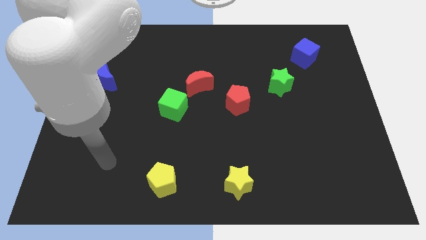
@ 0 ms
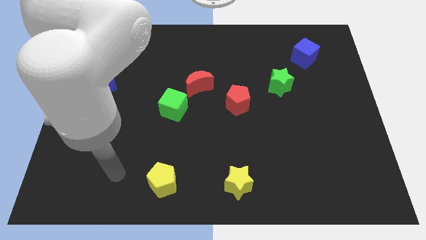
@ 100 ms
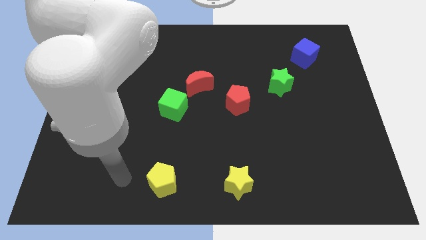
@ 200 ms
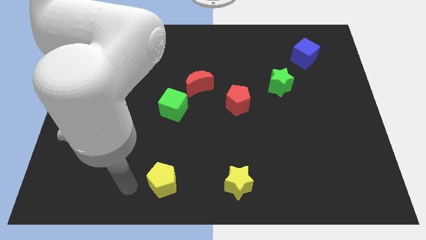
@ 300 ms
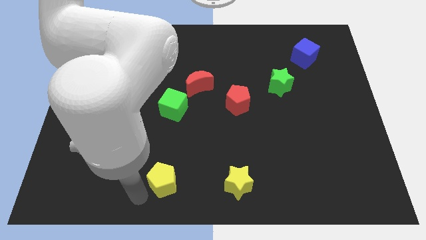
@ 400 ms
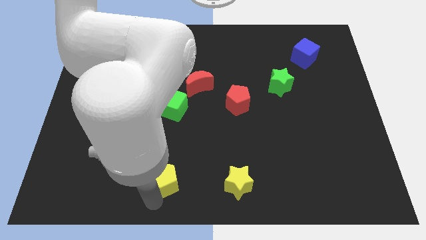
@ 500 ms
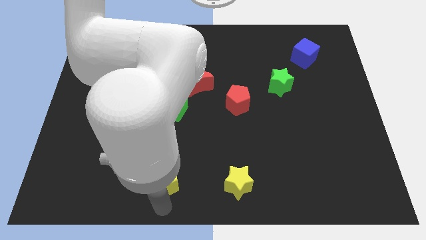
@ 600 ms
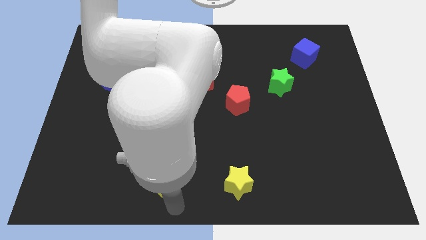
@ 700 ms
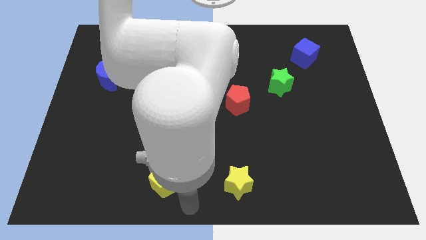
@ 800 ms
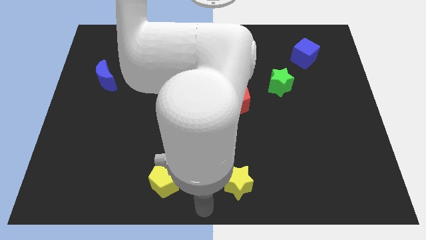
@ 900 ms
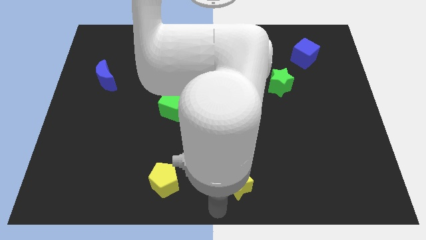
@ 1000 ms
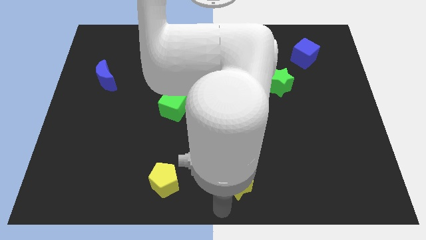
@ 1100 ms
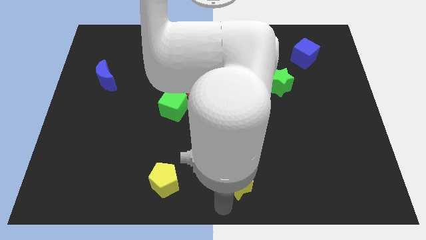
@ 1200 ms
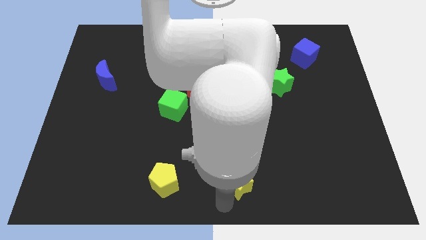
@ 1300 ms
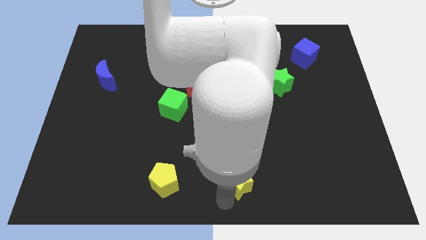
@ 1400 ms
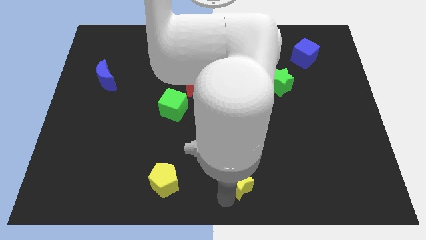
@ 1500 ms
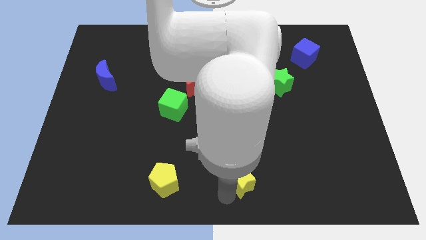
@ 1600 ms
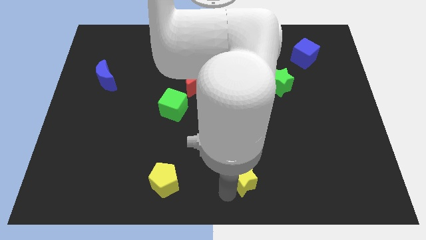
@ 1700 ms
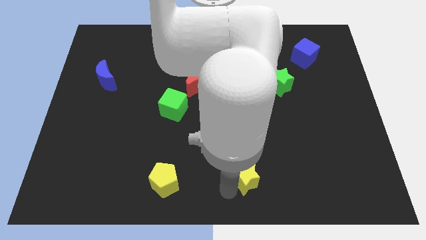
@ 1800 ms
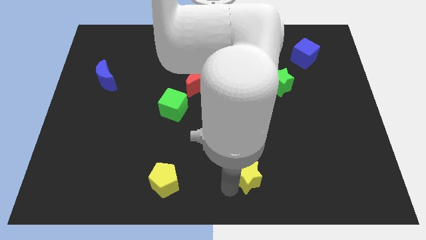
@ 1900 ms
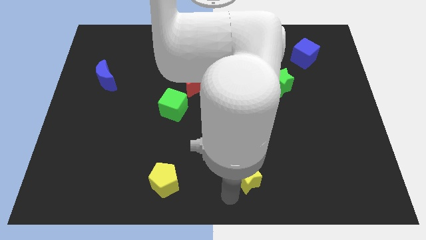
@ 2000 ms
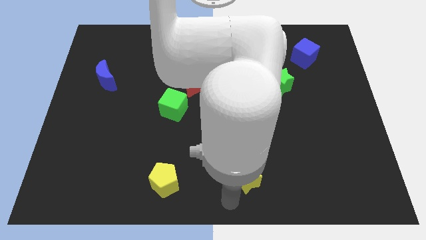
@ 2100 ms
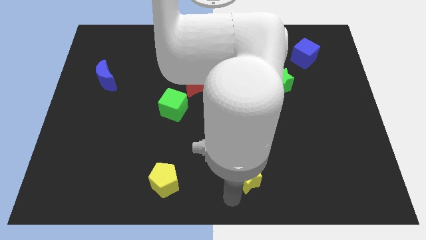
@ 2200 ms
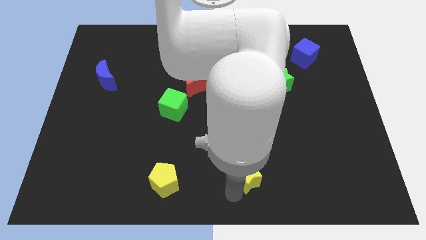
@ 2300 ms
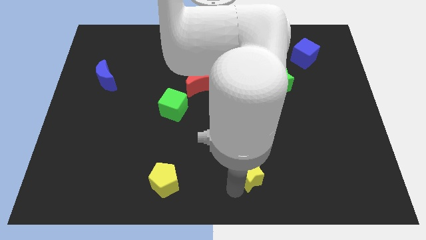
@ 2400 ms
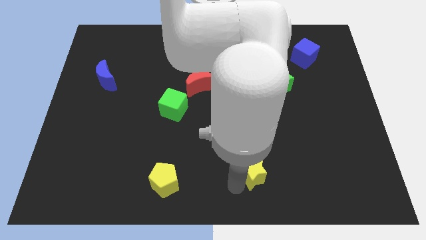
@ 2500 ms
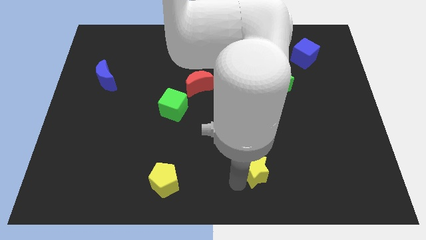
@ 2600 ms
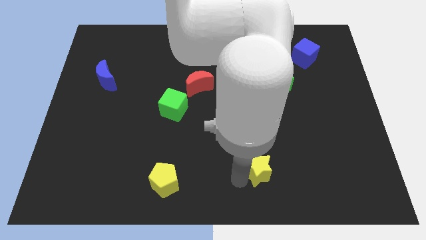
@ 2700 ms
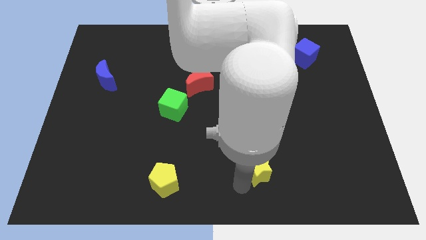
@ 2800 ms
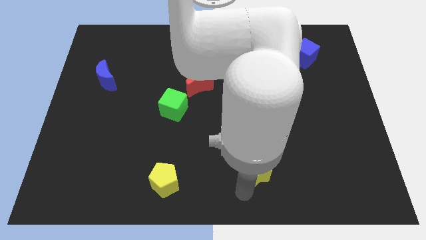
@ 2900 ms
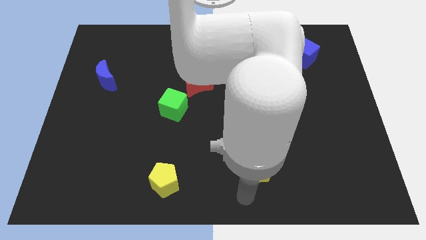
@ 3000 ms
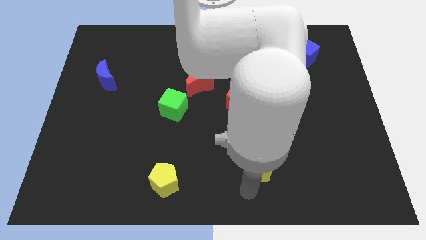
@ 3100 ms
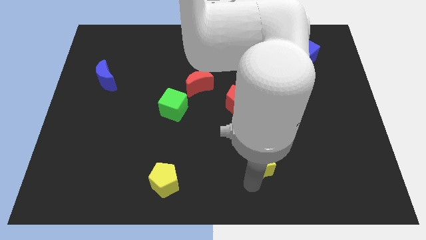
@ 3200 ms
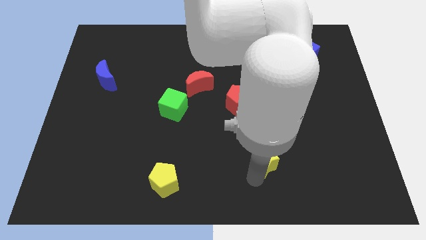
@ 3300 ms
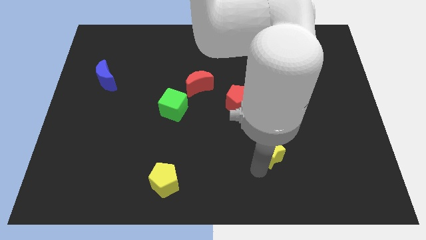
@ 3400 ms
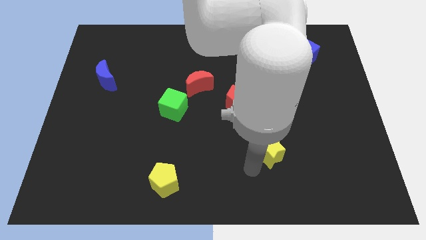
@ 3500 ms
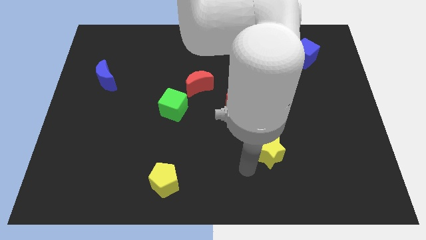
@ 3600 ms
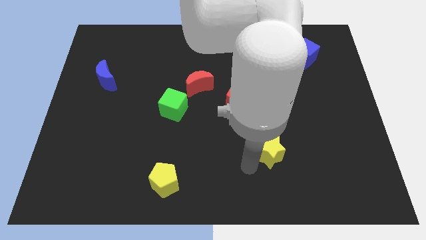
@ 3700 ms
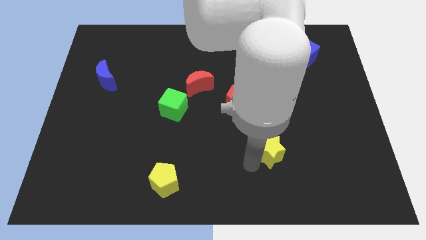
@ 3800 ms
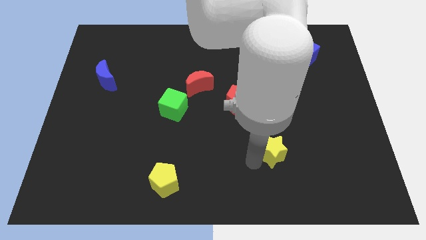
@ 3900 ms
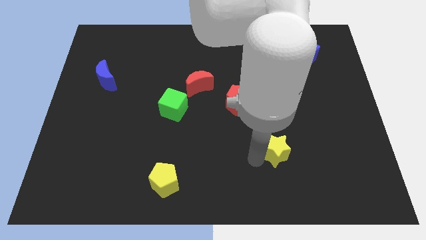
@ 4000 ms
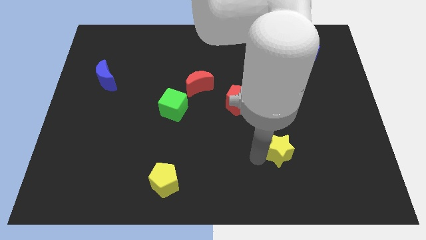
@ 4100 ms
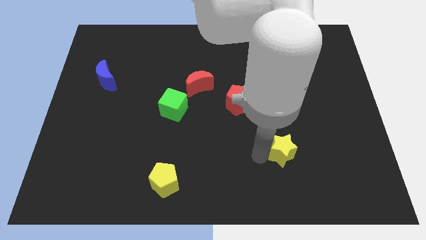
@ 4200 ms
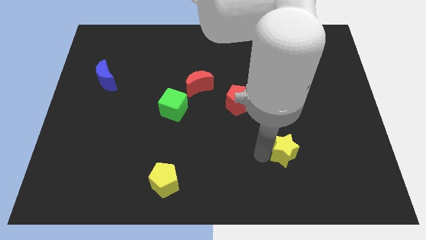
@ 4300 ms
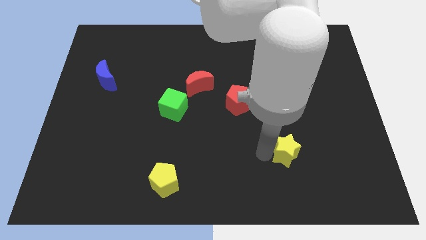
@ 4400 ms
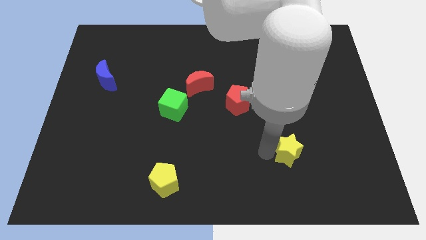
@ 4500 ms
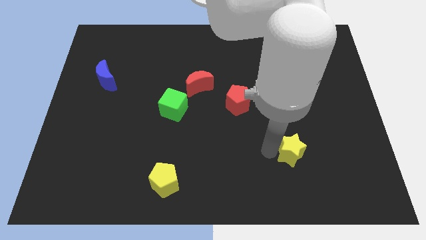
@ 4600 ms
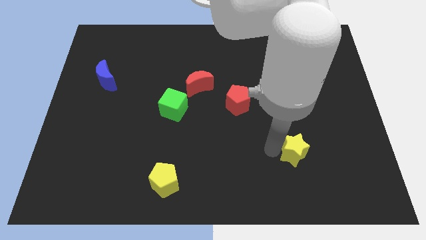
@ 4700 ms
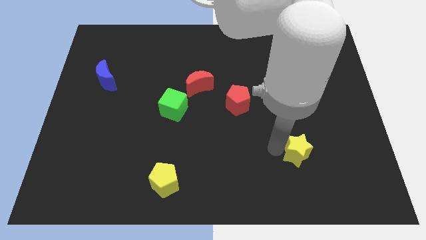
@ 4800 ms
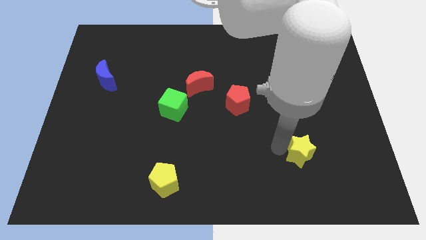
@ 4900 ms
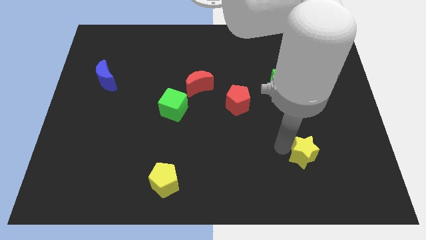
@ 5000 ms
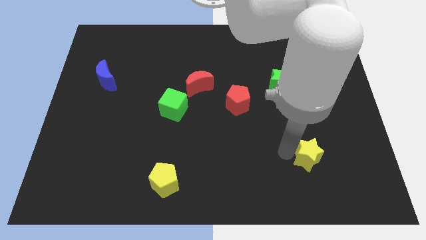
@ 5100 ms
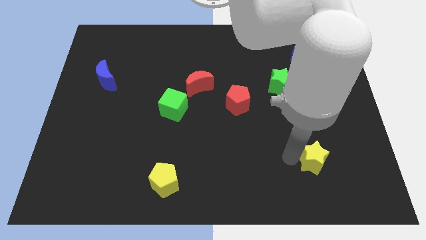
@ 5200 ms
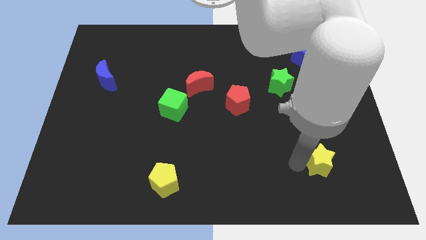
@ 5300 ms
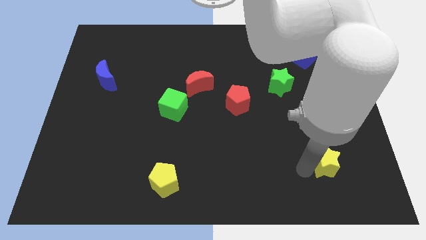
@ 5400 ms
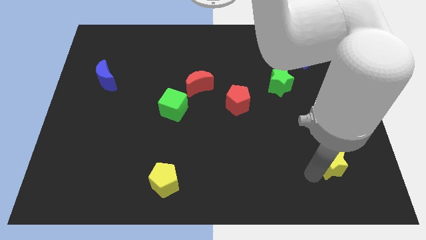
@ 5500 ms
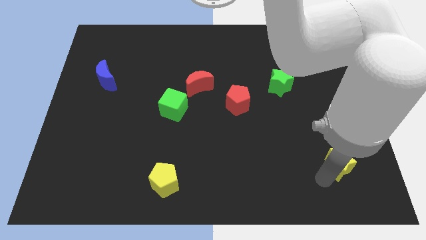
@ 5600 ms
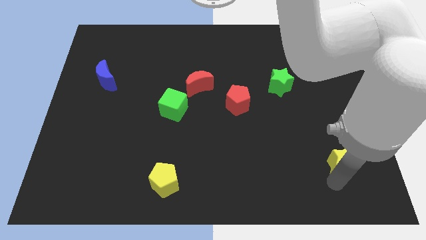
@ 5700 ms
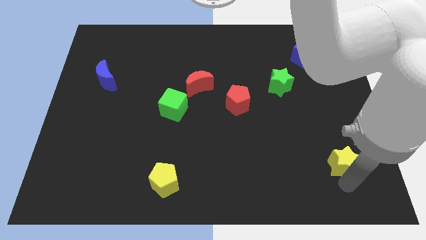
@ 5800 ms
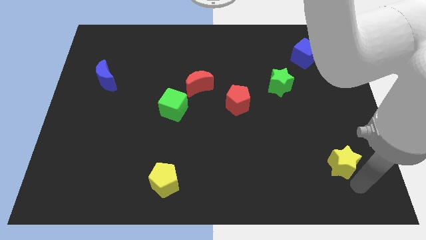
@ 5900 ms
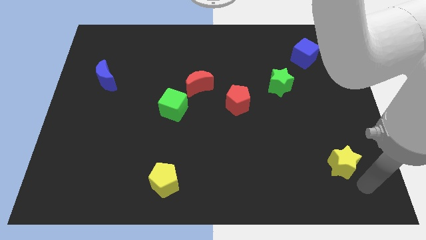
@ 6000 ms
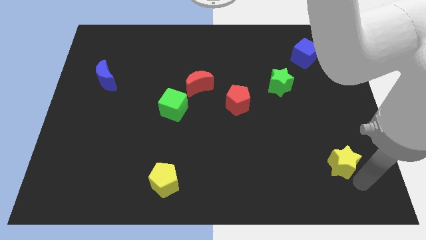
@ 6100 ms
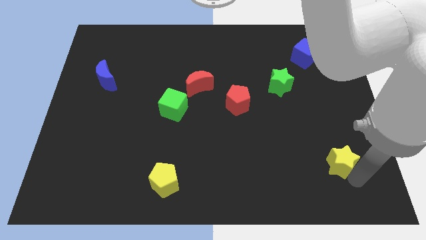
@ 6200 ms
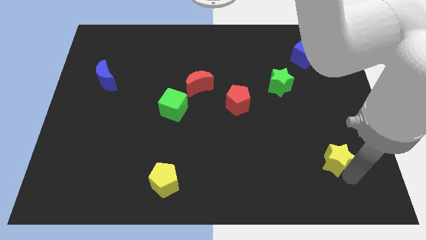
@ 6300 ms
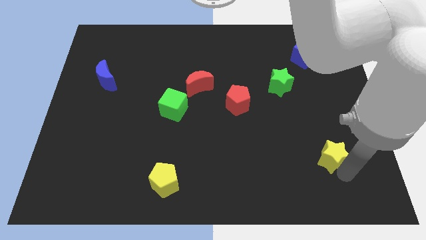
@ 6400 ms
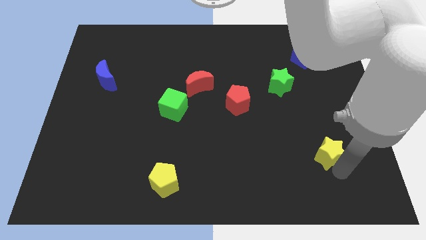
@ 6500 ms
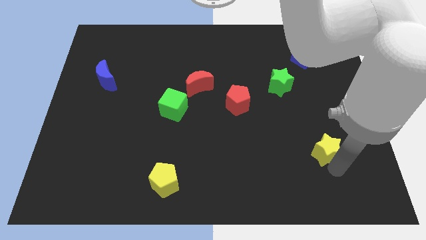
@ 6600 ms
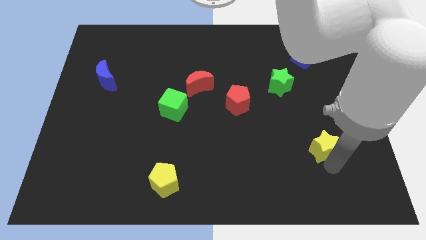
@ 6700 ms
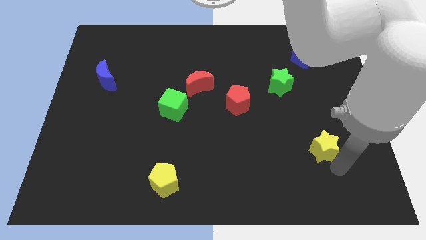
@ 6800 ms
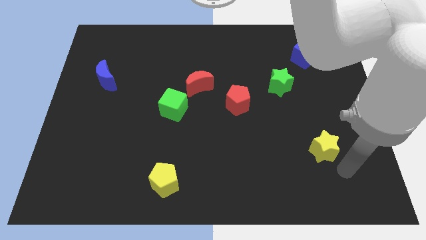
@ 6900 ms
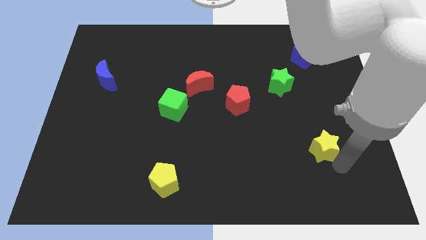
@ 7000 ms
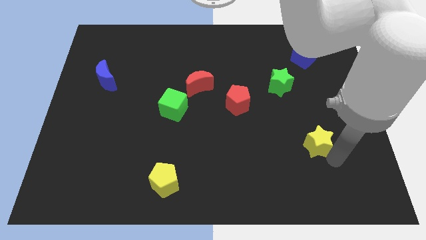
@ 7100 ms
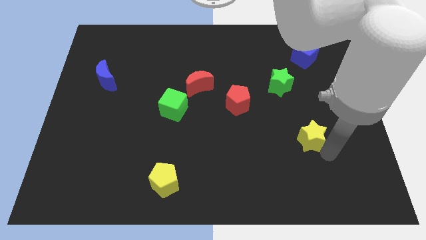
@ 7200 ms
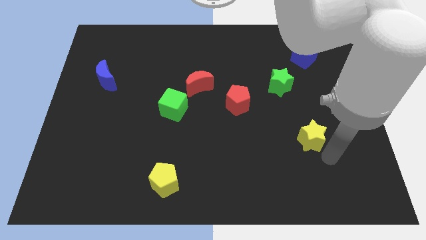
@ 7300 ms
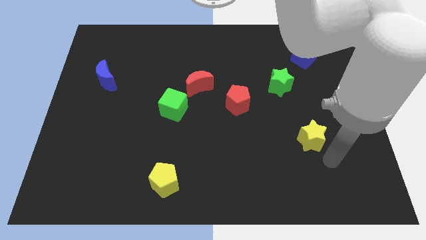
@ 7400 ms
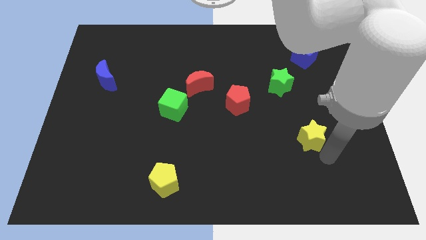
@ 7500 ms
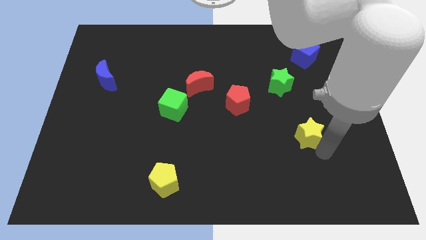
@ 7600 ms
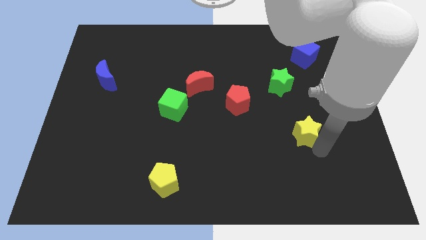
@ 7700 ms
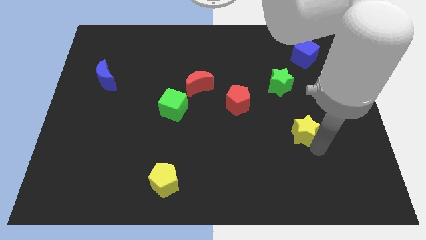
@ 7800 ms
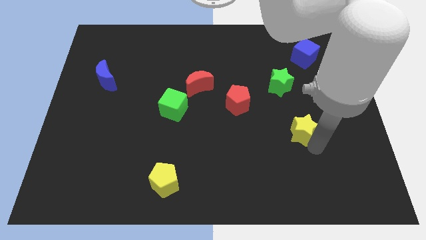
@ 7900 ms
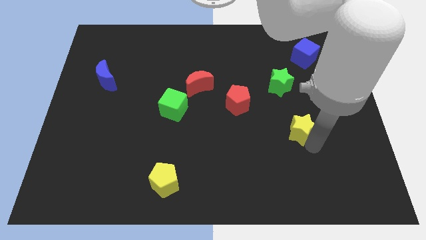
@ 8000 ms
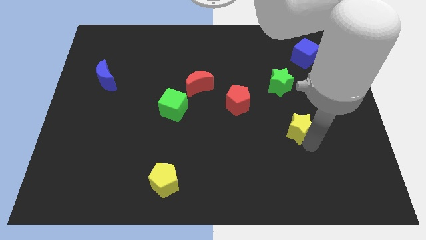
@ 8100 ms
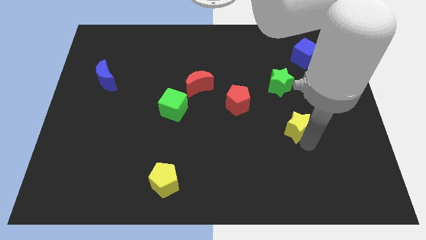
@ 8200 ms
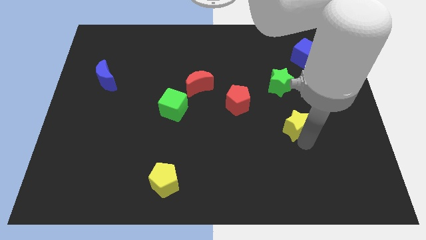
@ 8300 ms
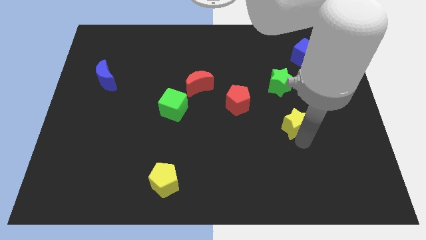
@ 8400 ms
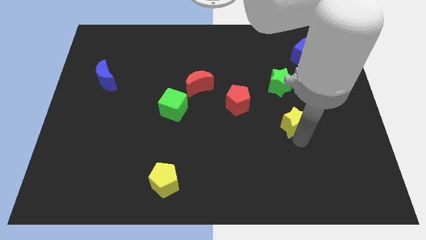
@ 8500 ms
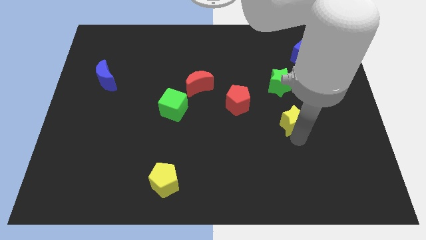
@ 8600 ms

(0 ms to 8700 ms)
push the yellow star upwards and then right
